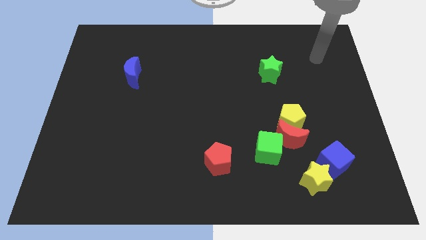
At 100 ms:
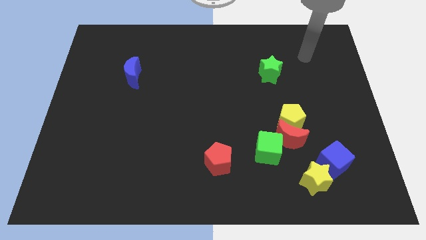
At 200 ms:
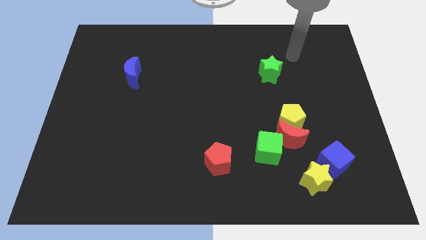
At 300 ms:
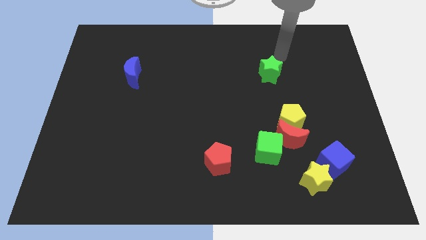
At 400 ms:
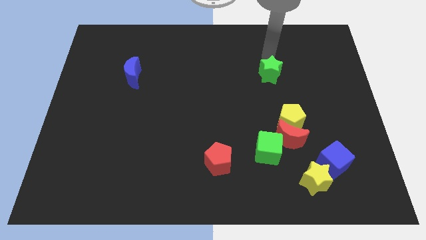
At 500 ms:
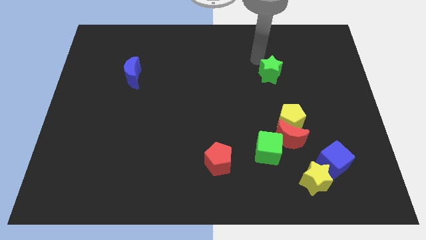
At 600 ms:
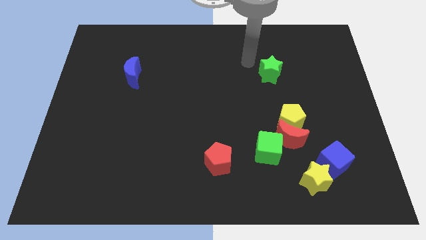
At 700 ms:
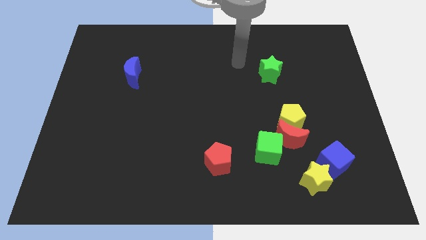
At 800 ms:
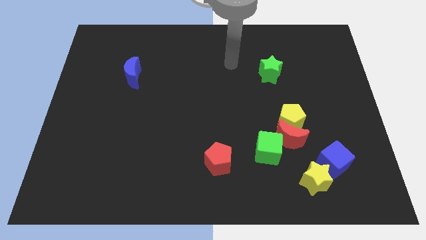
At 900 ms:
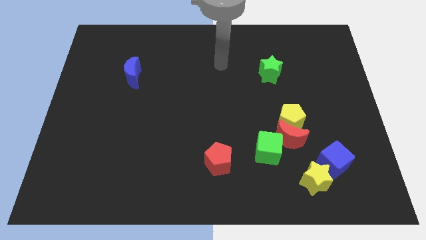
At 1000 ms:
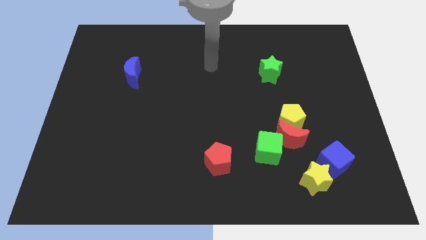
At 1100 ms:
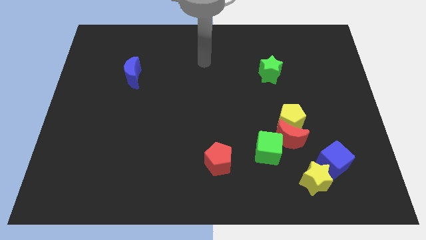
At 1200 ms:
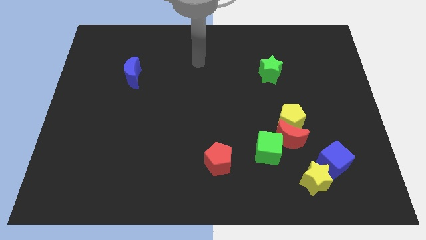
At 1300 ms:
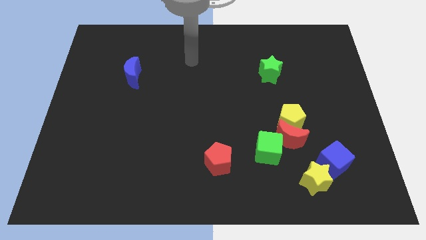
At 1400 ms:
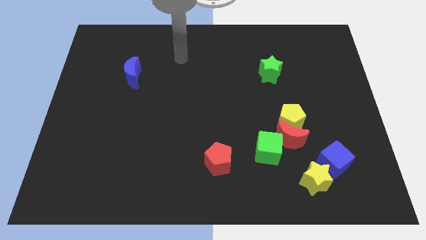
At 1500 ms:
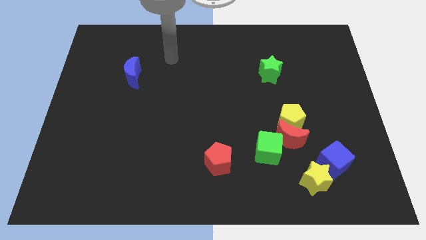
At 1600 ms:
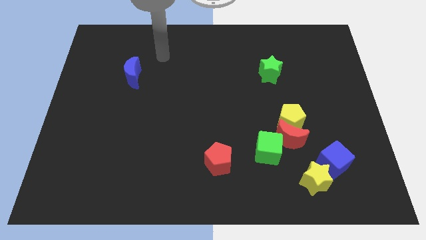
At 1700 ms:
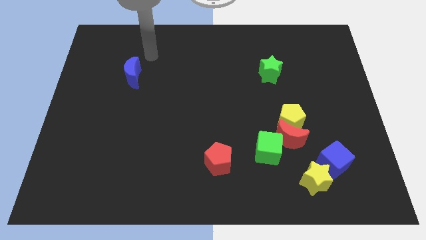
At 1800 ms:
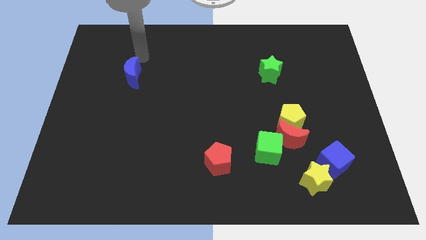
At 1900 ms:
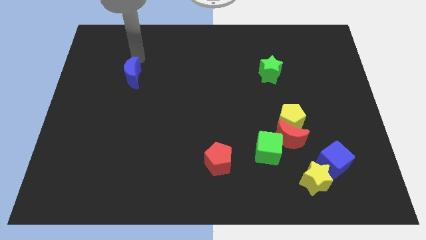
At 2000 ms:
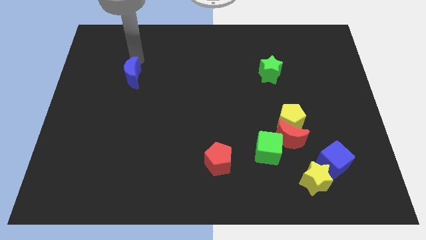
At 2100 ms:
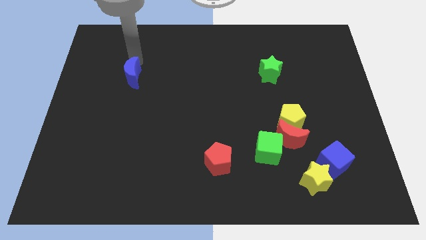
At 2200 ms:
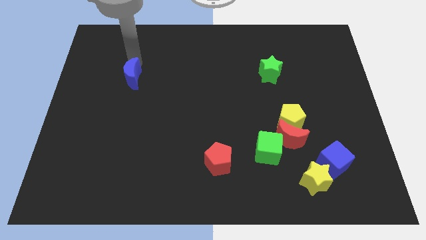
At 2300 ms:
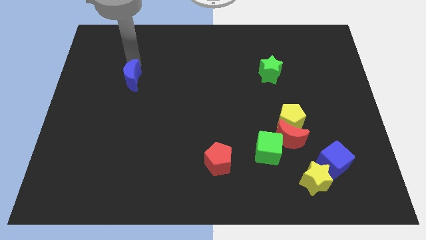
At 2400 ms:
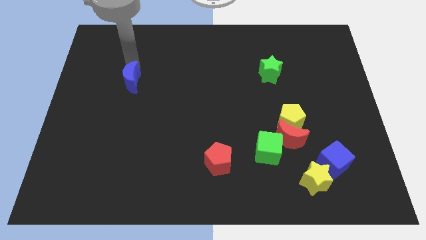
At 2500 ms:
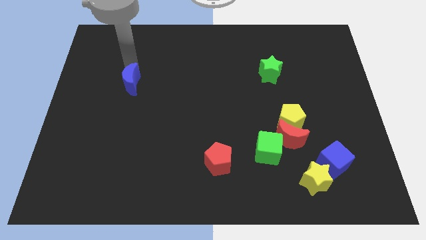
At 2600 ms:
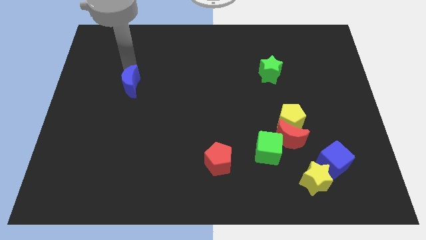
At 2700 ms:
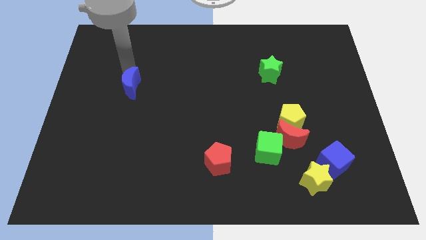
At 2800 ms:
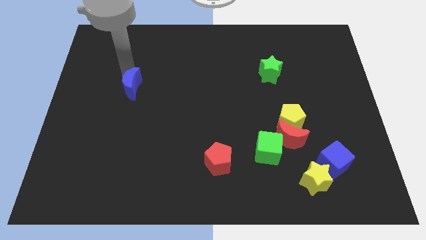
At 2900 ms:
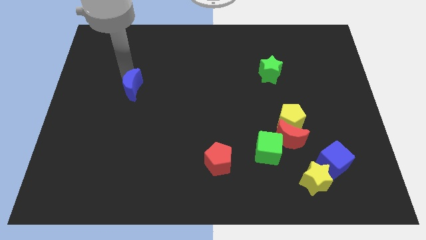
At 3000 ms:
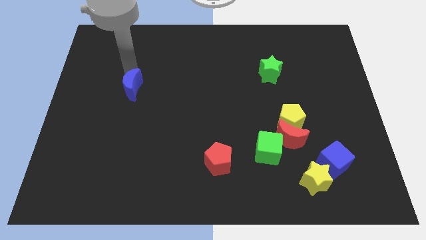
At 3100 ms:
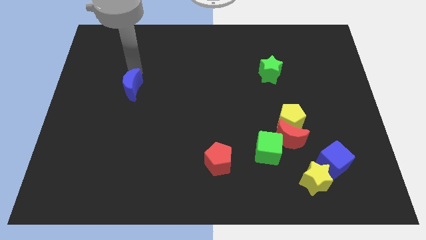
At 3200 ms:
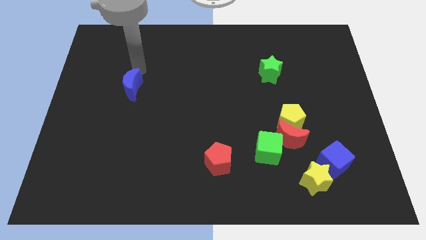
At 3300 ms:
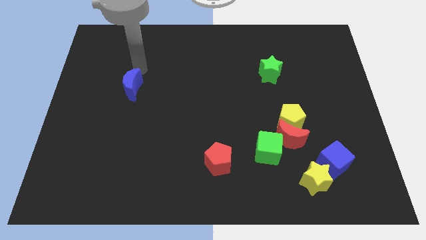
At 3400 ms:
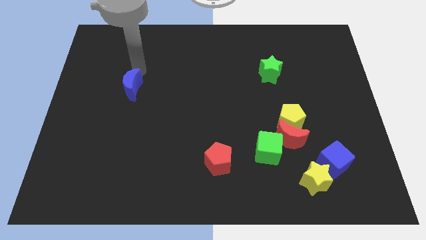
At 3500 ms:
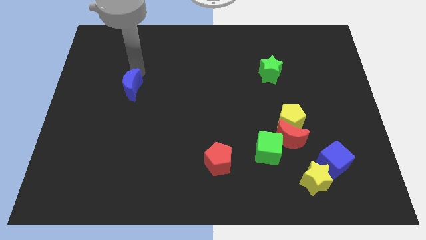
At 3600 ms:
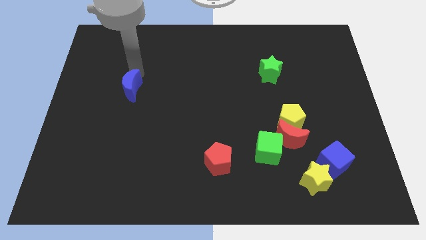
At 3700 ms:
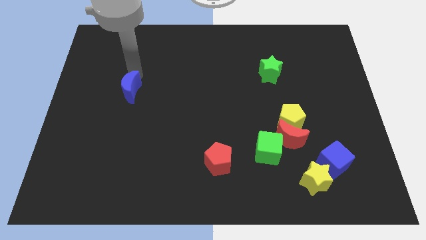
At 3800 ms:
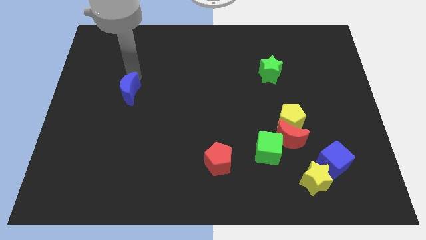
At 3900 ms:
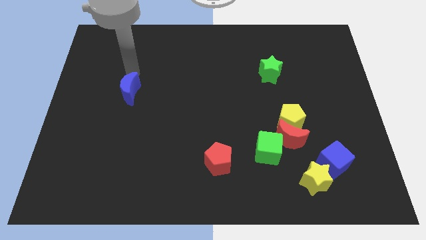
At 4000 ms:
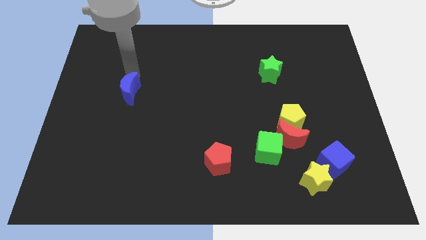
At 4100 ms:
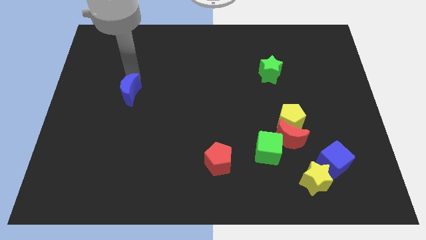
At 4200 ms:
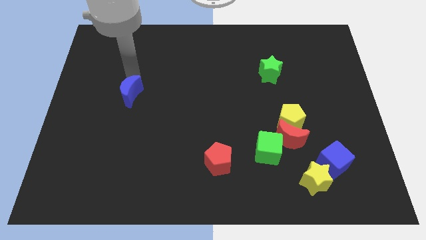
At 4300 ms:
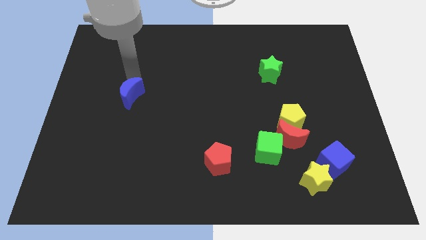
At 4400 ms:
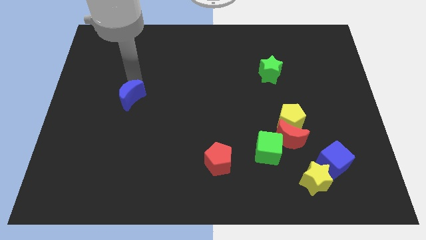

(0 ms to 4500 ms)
slide the blue moon slightly downwards

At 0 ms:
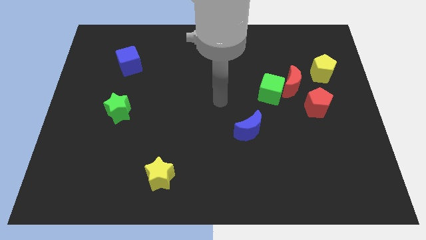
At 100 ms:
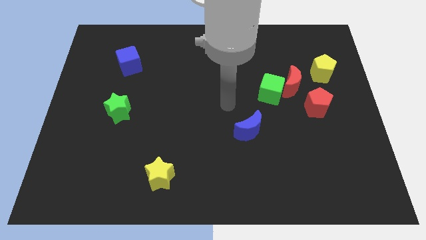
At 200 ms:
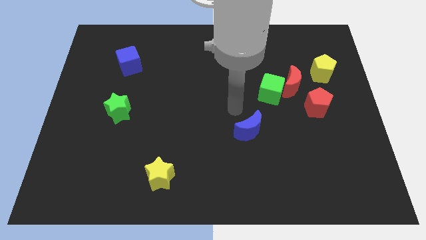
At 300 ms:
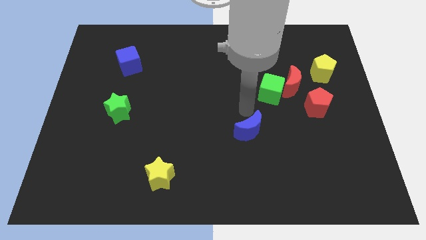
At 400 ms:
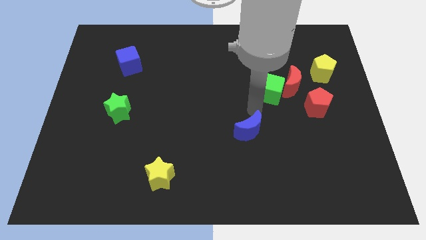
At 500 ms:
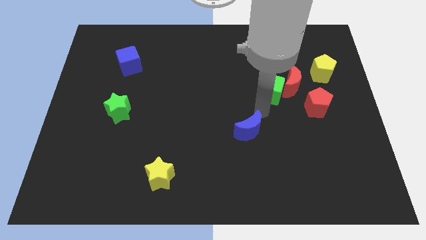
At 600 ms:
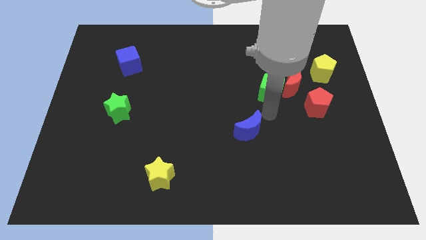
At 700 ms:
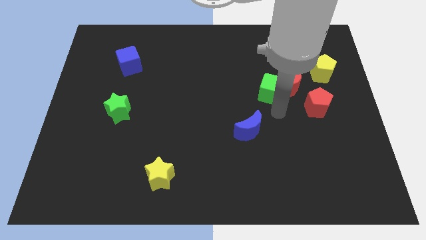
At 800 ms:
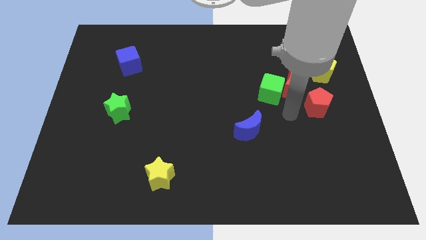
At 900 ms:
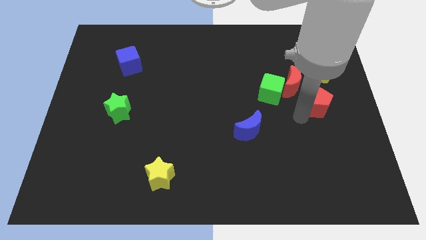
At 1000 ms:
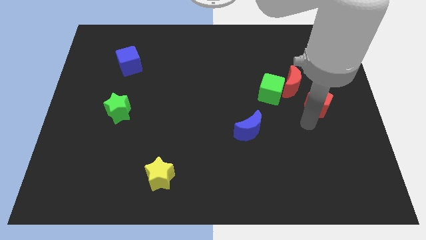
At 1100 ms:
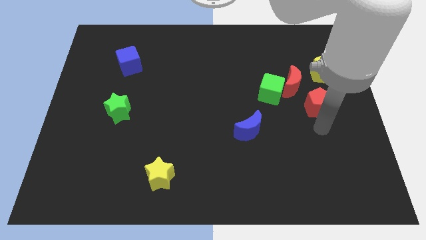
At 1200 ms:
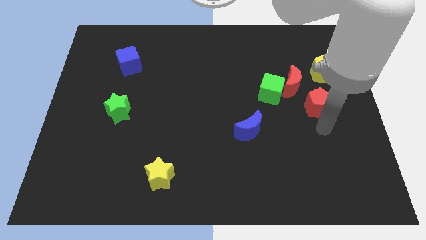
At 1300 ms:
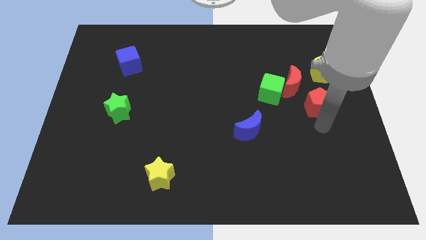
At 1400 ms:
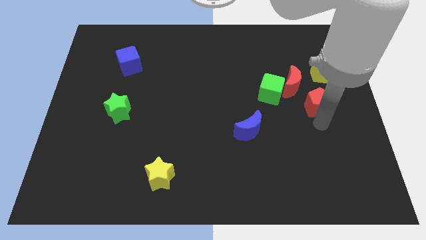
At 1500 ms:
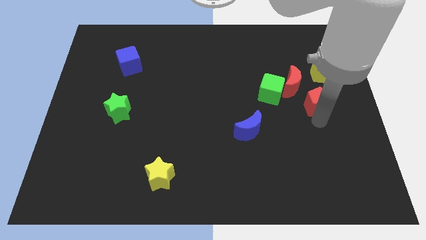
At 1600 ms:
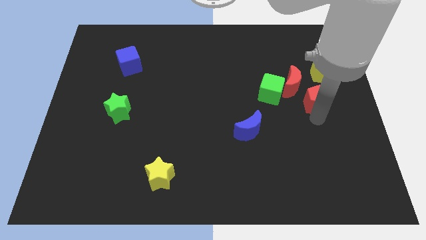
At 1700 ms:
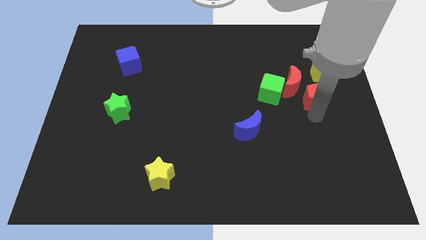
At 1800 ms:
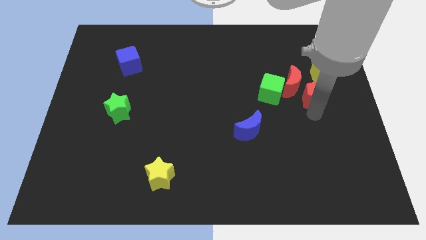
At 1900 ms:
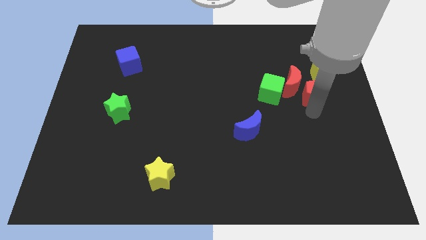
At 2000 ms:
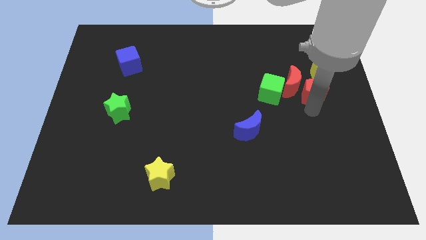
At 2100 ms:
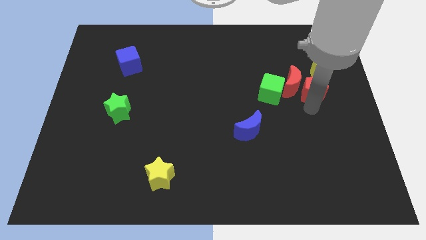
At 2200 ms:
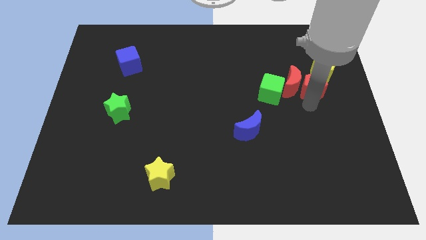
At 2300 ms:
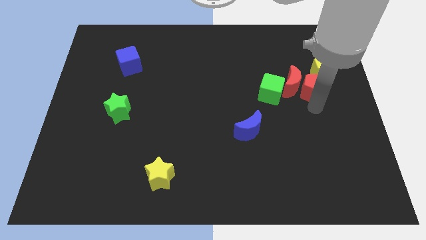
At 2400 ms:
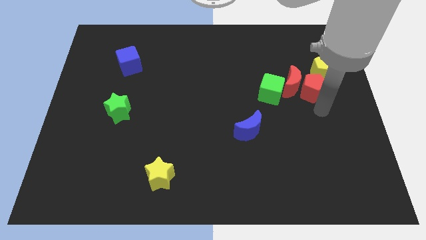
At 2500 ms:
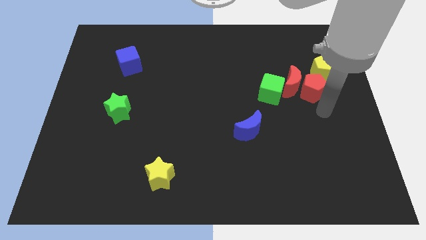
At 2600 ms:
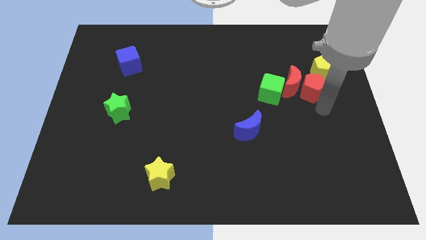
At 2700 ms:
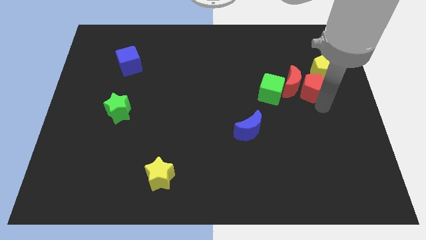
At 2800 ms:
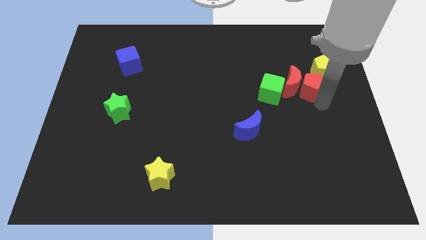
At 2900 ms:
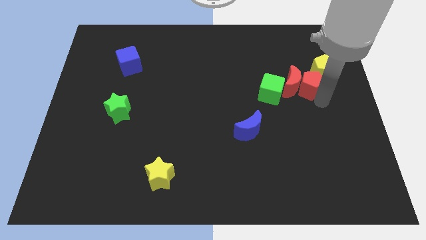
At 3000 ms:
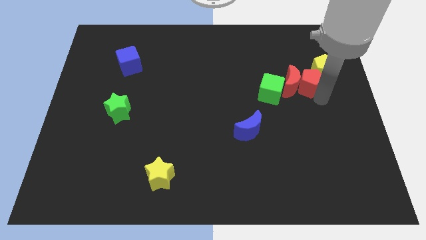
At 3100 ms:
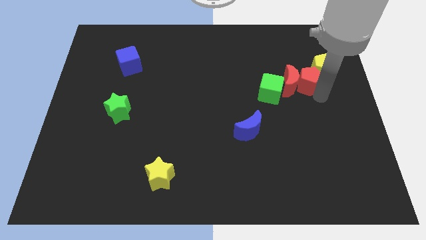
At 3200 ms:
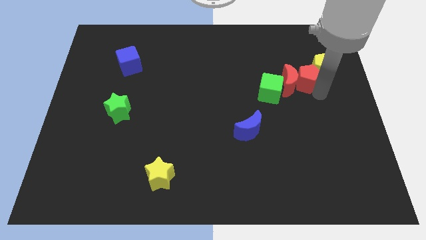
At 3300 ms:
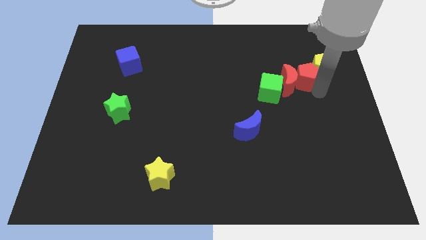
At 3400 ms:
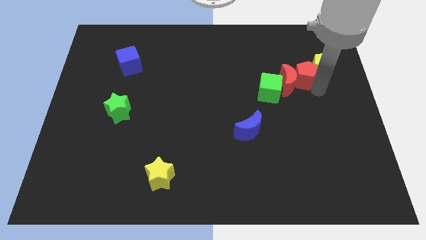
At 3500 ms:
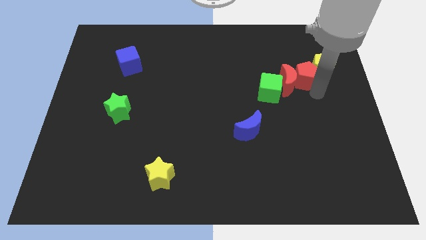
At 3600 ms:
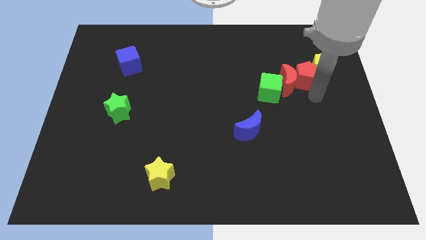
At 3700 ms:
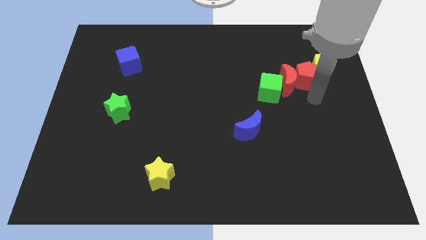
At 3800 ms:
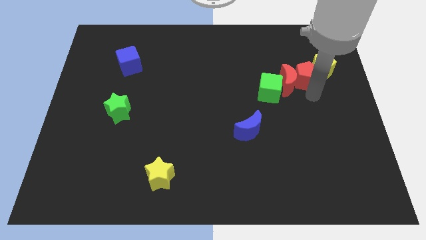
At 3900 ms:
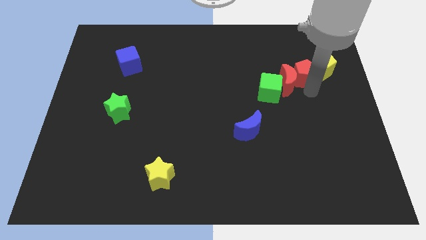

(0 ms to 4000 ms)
slide the red pentagon a little bit upwards and left diagonally
